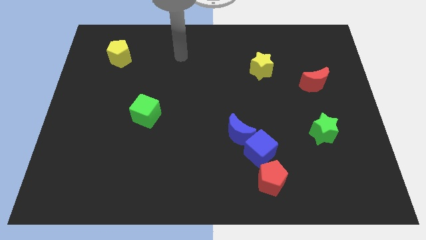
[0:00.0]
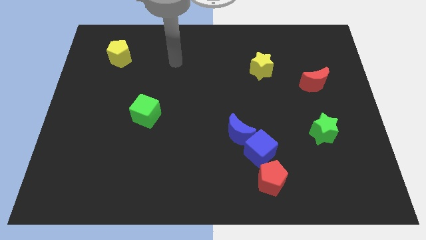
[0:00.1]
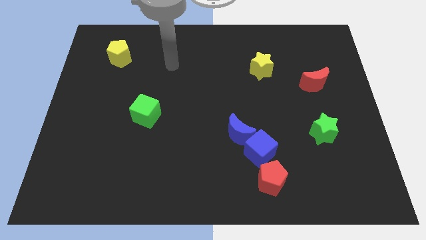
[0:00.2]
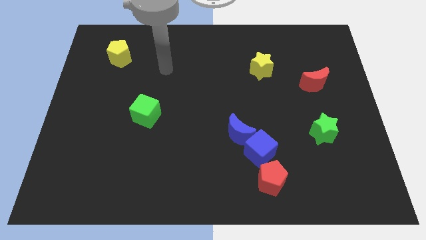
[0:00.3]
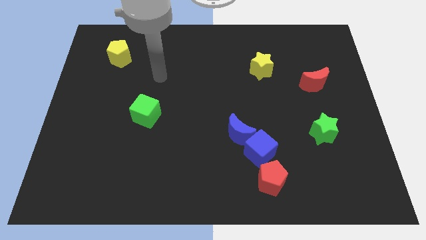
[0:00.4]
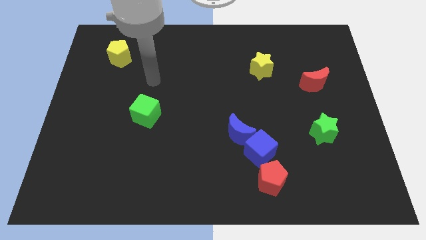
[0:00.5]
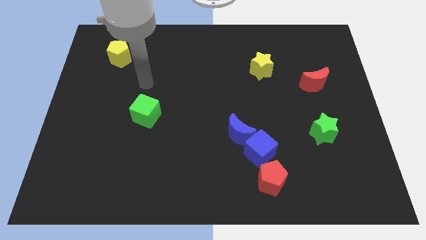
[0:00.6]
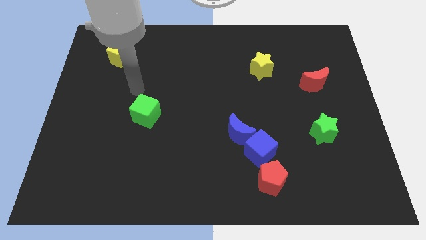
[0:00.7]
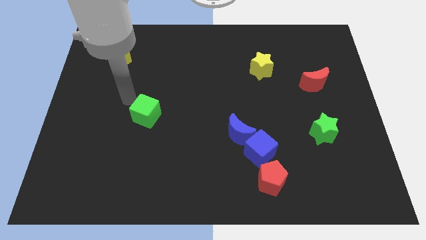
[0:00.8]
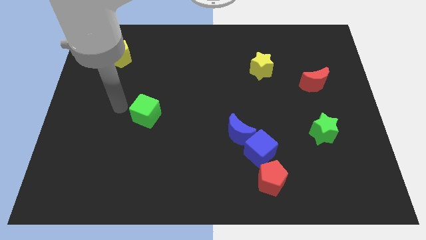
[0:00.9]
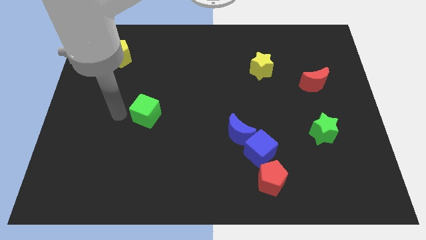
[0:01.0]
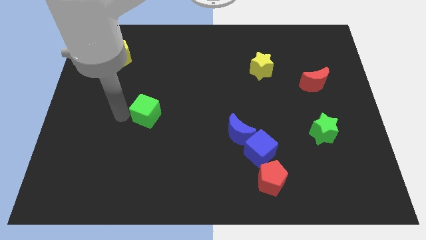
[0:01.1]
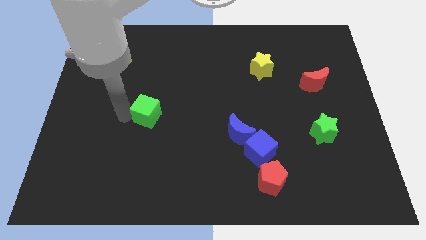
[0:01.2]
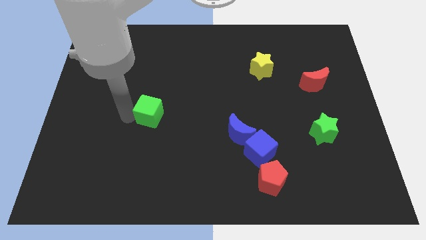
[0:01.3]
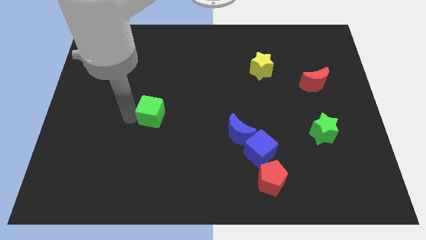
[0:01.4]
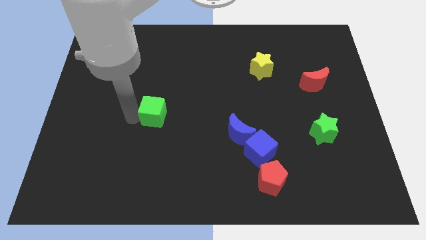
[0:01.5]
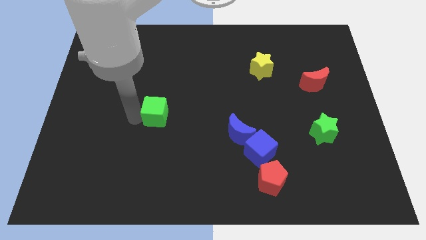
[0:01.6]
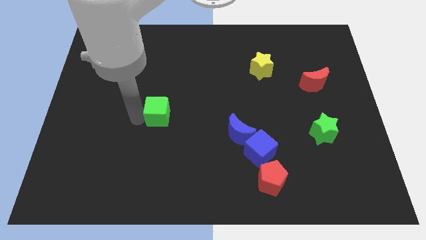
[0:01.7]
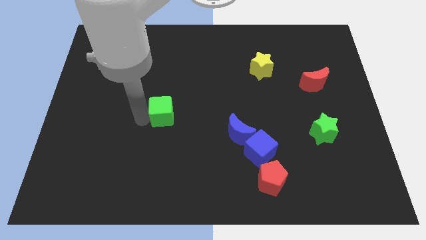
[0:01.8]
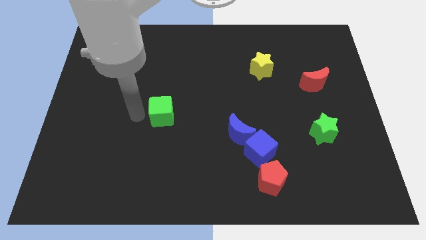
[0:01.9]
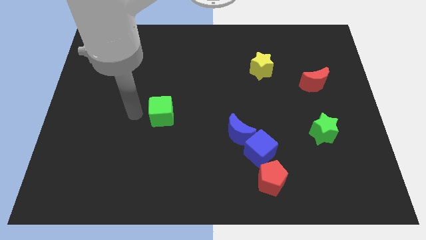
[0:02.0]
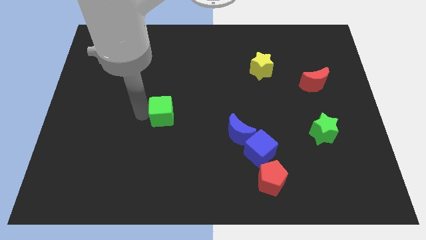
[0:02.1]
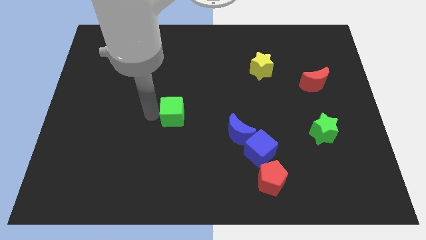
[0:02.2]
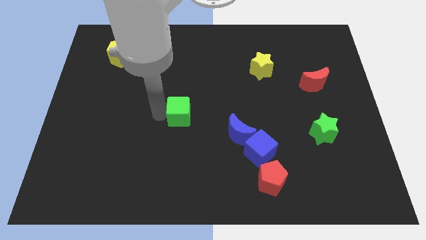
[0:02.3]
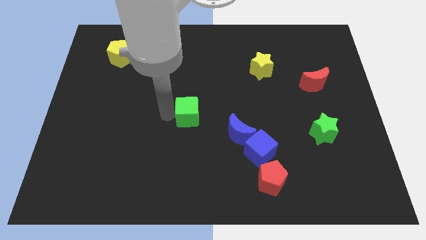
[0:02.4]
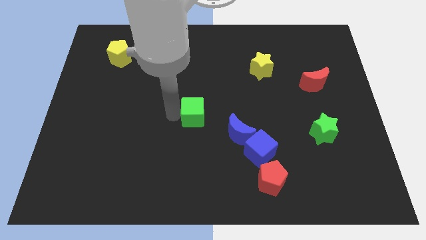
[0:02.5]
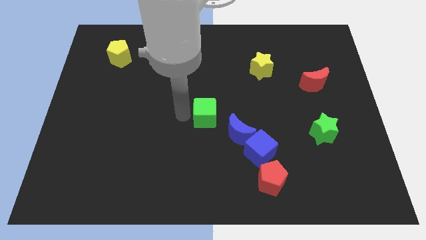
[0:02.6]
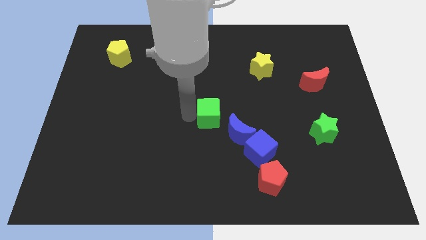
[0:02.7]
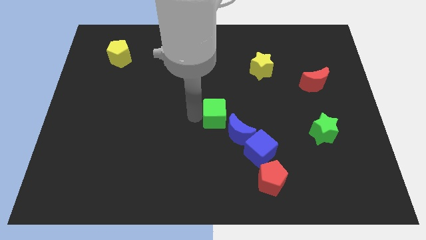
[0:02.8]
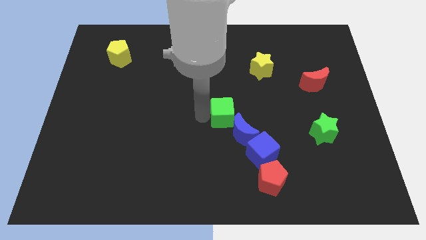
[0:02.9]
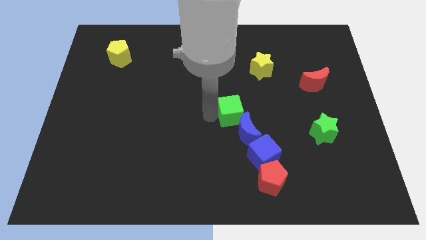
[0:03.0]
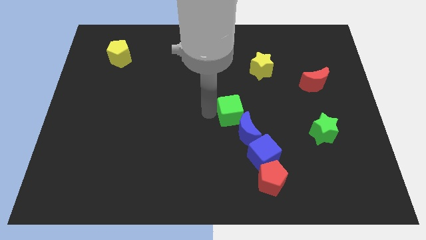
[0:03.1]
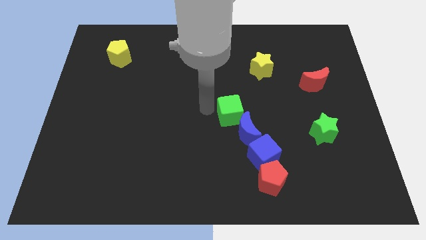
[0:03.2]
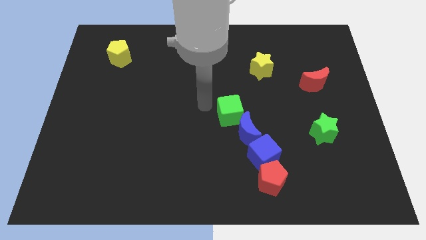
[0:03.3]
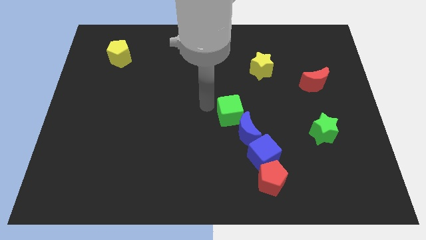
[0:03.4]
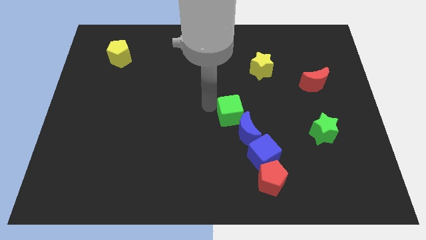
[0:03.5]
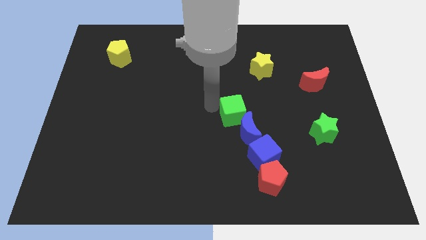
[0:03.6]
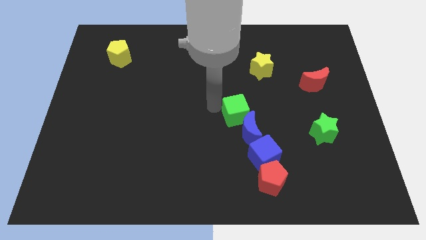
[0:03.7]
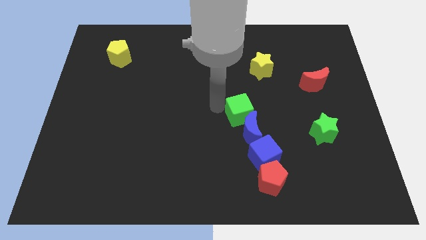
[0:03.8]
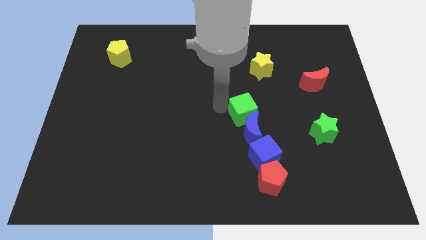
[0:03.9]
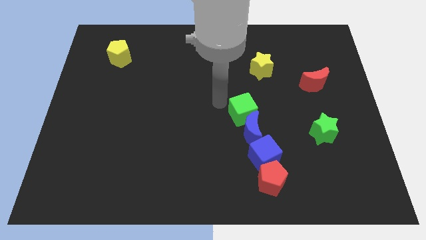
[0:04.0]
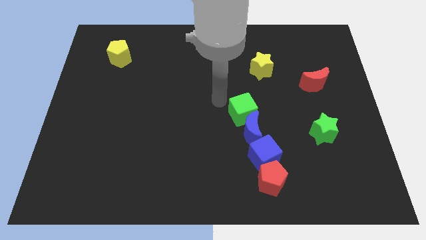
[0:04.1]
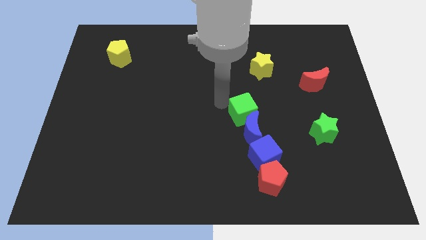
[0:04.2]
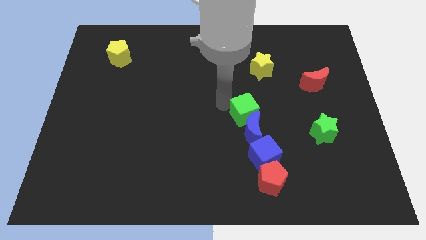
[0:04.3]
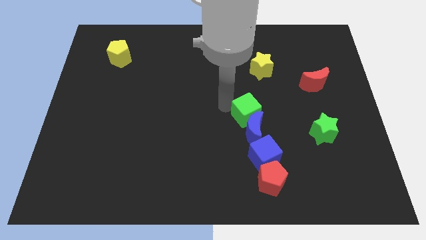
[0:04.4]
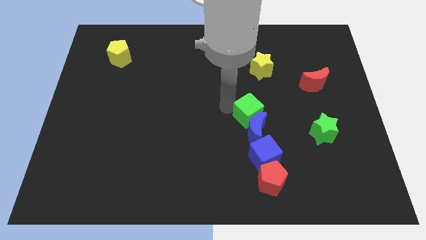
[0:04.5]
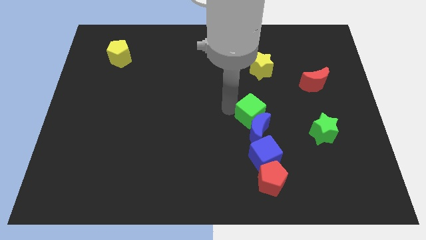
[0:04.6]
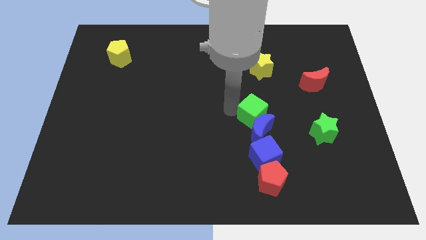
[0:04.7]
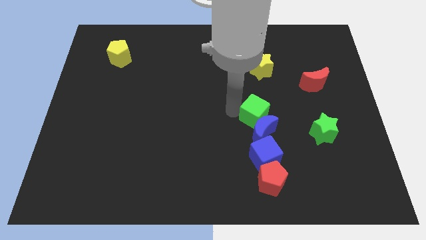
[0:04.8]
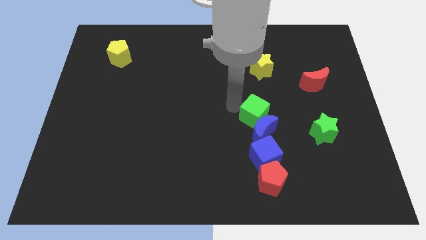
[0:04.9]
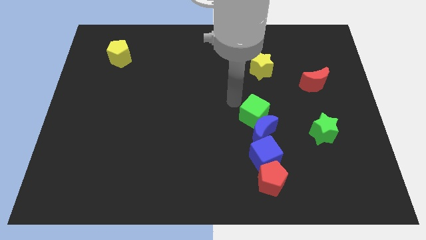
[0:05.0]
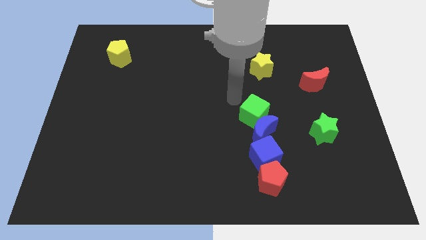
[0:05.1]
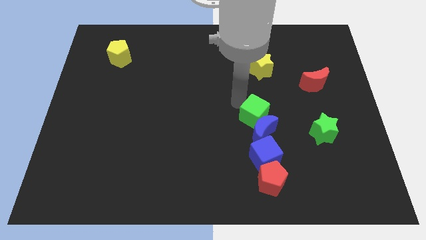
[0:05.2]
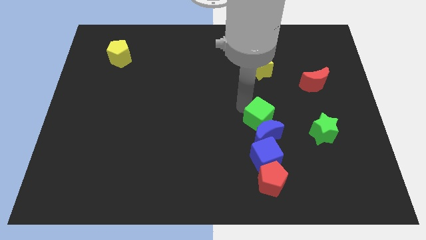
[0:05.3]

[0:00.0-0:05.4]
move the green cube to the left of the green star

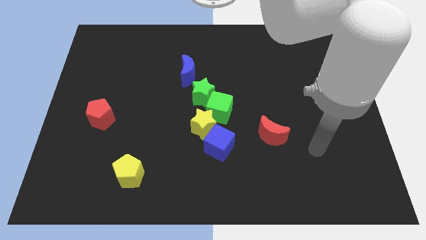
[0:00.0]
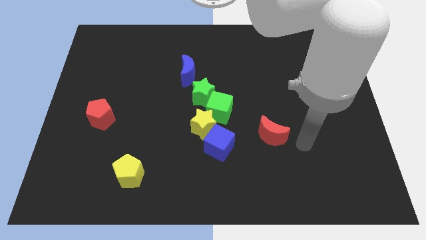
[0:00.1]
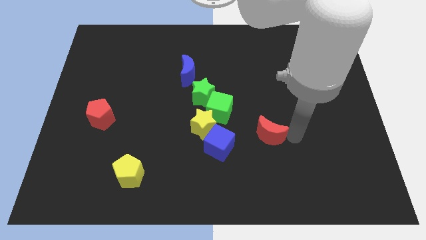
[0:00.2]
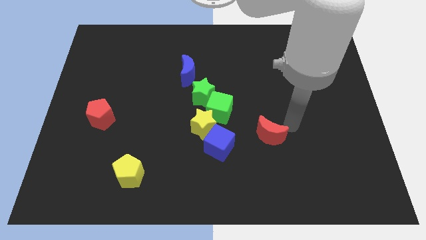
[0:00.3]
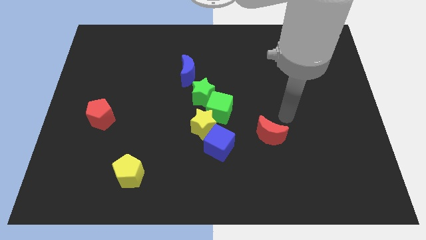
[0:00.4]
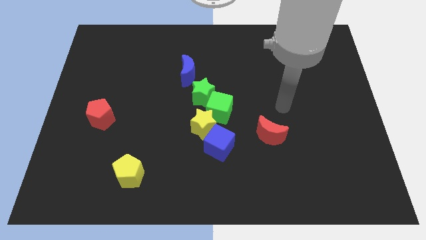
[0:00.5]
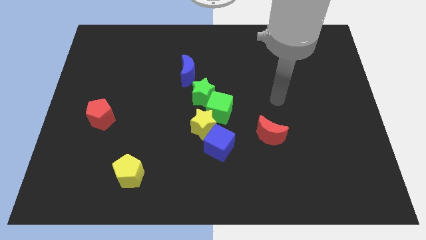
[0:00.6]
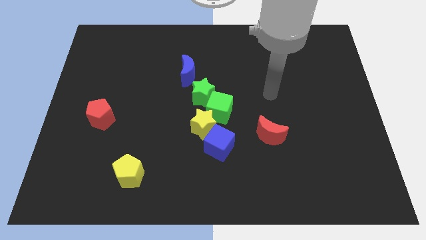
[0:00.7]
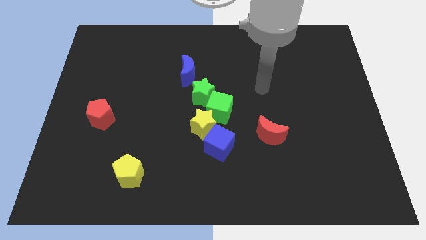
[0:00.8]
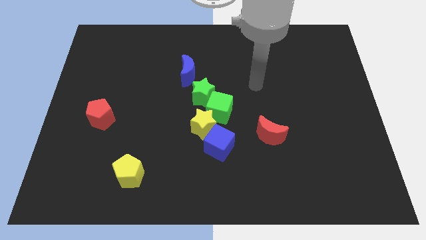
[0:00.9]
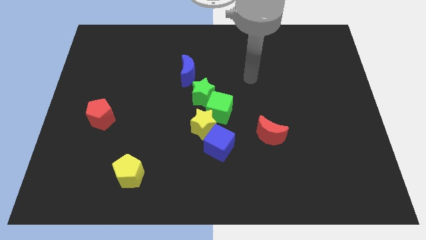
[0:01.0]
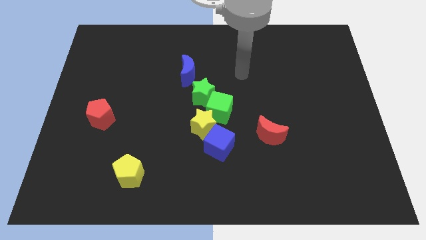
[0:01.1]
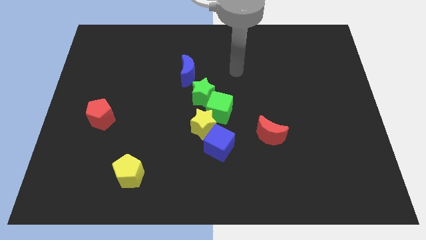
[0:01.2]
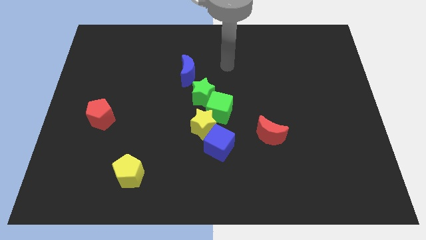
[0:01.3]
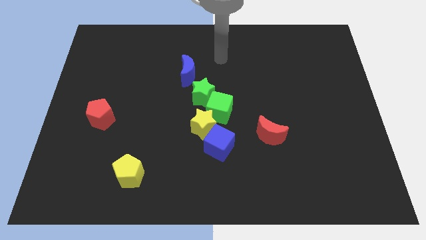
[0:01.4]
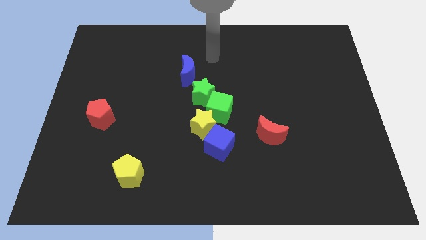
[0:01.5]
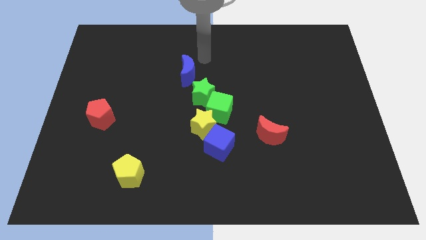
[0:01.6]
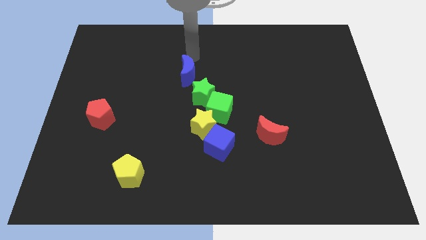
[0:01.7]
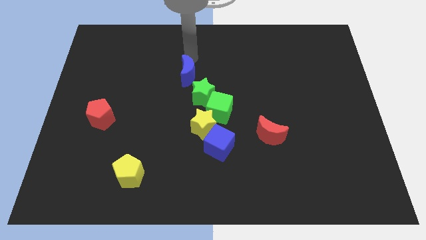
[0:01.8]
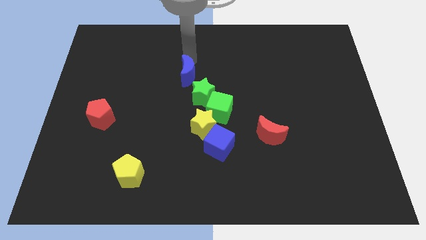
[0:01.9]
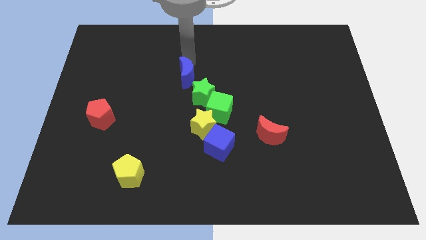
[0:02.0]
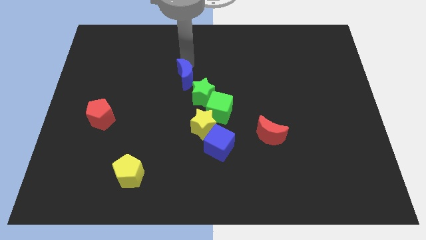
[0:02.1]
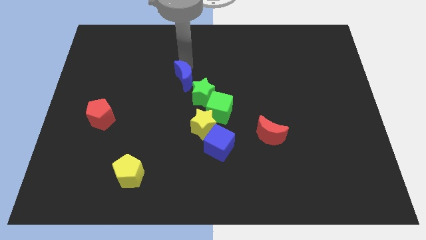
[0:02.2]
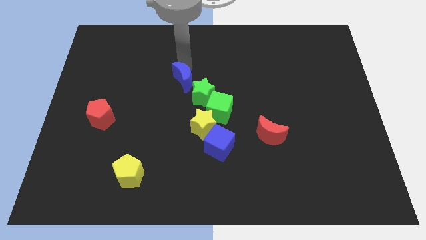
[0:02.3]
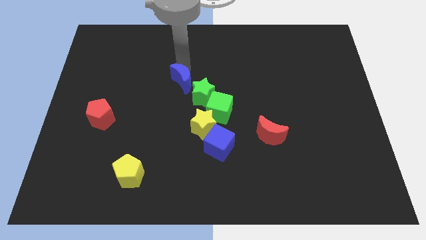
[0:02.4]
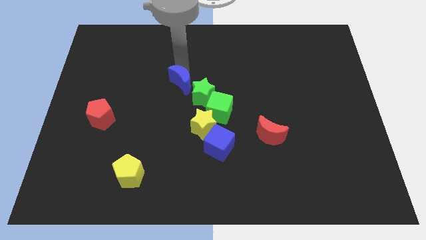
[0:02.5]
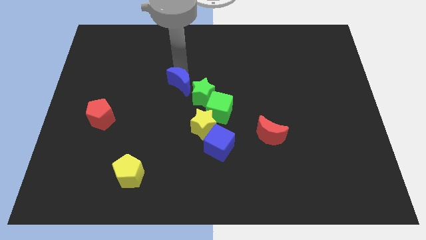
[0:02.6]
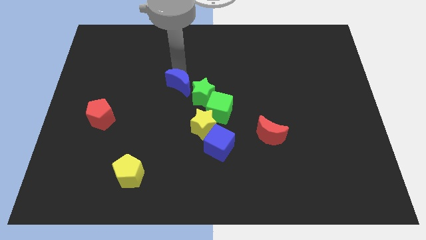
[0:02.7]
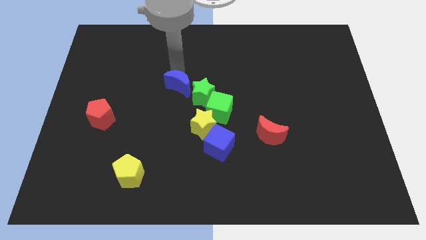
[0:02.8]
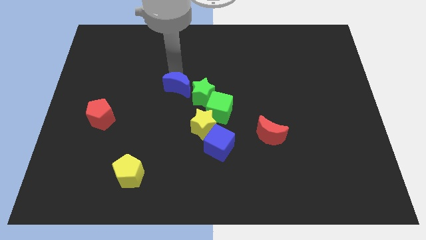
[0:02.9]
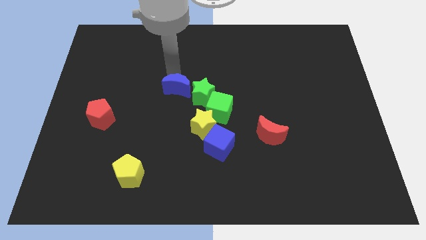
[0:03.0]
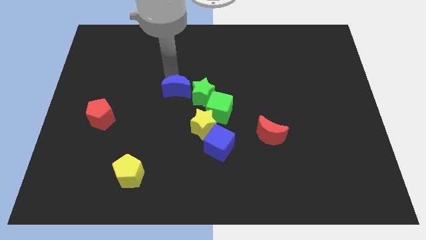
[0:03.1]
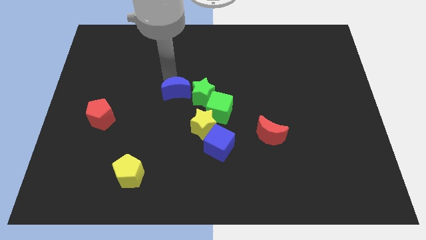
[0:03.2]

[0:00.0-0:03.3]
move the blue moon to the top left side of the yellow star
